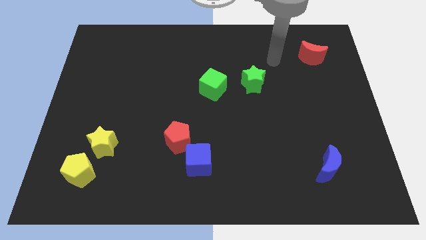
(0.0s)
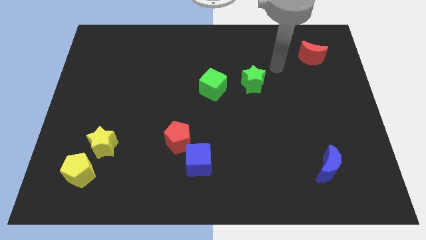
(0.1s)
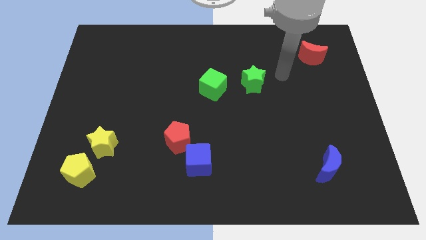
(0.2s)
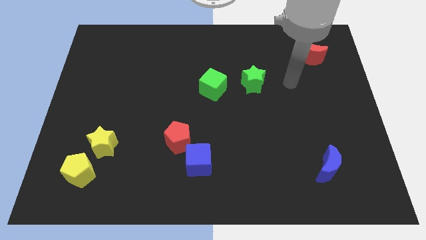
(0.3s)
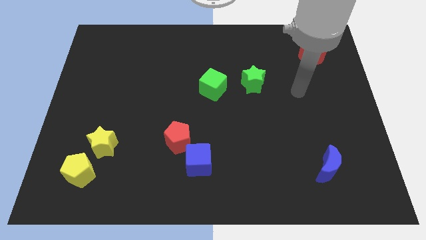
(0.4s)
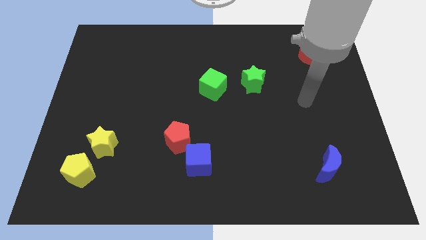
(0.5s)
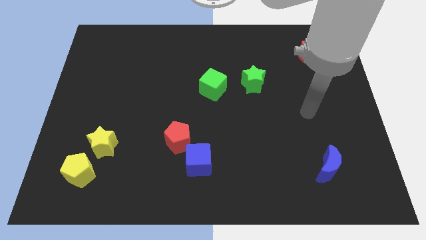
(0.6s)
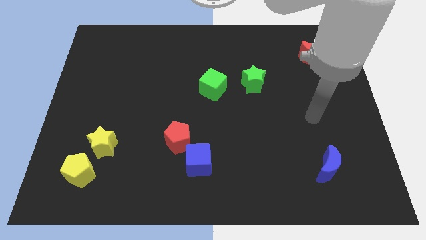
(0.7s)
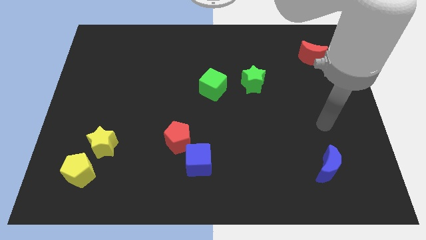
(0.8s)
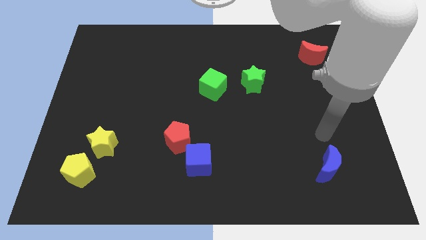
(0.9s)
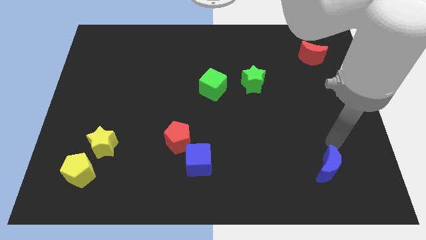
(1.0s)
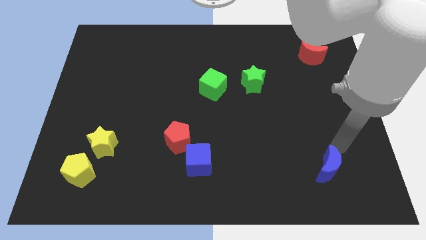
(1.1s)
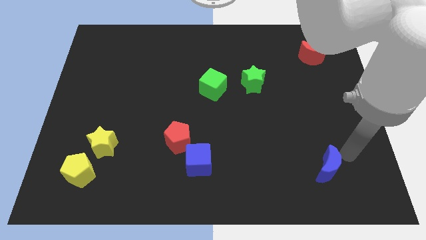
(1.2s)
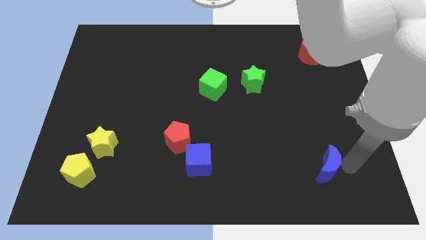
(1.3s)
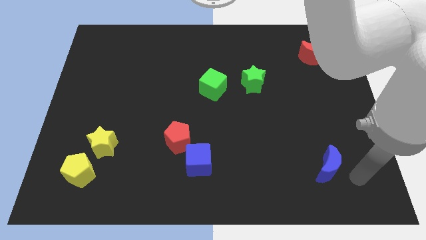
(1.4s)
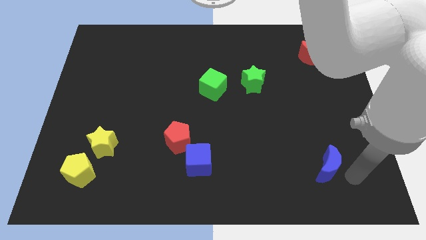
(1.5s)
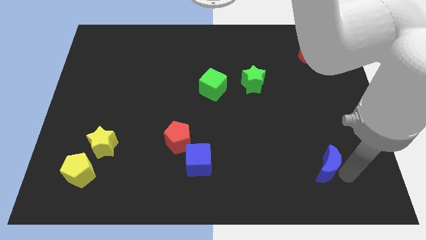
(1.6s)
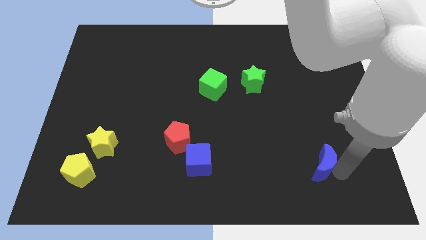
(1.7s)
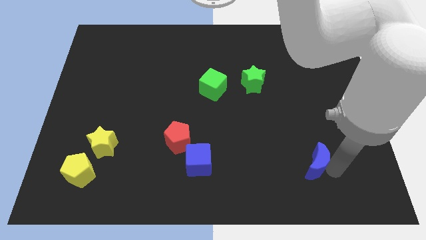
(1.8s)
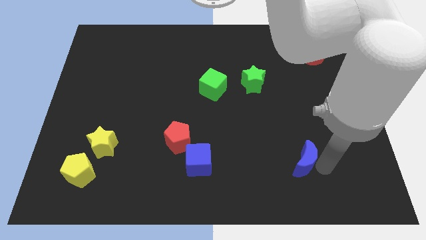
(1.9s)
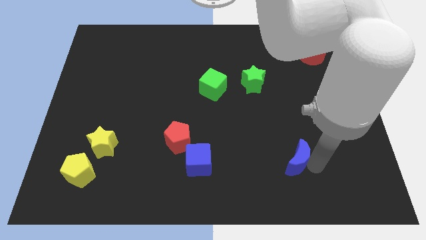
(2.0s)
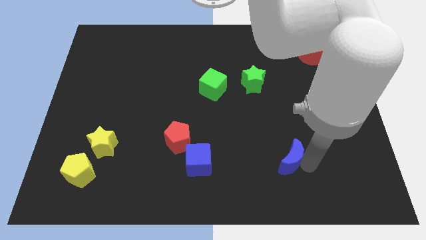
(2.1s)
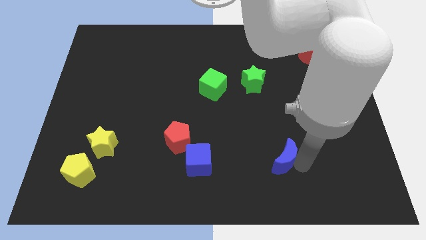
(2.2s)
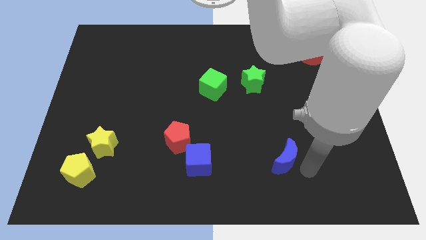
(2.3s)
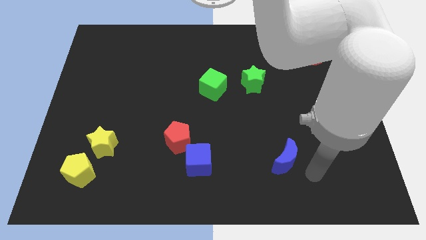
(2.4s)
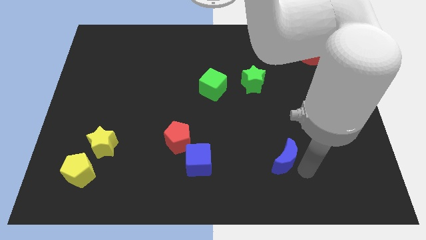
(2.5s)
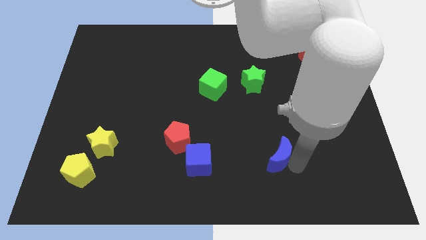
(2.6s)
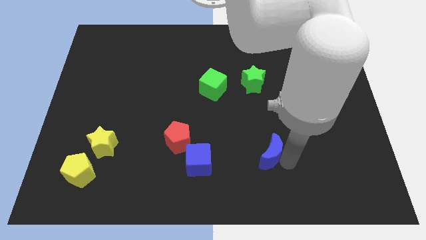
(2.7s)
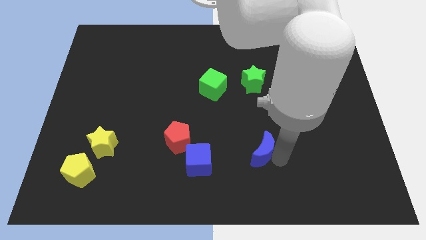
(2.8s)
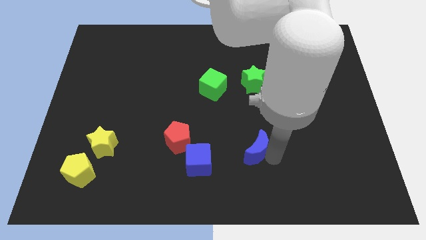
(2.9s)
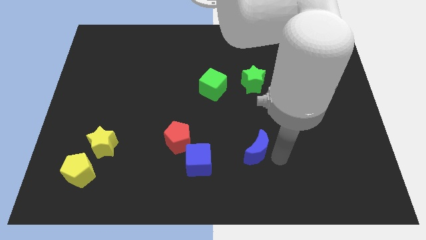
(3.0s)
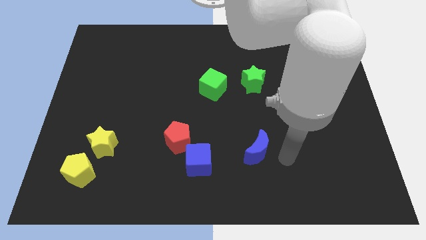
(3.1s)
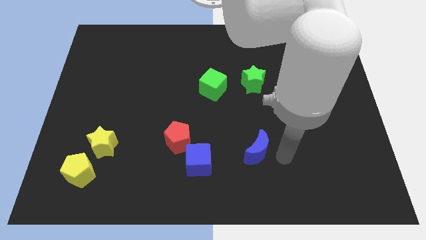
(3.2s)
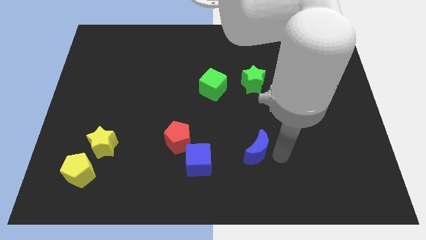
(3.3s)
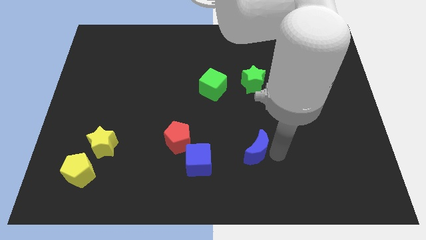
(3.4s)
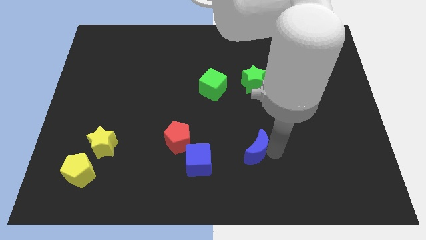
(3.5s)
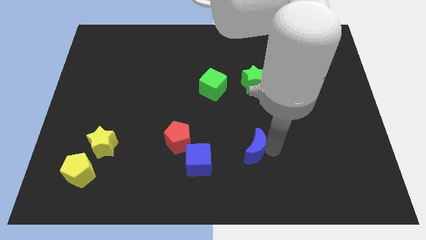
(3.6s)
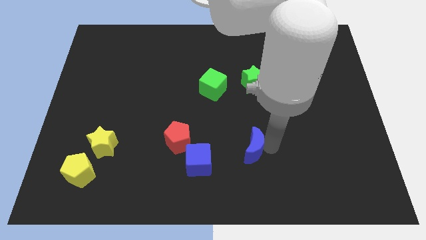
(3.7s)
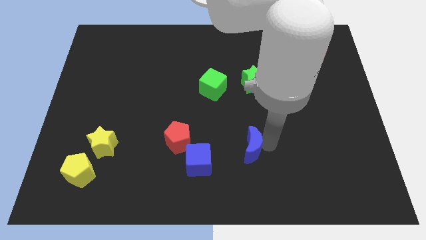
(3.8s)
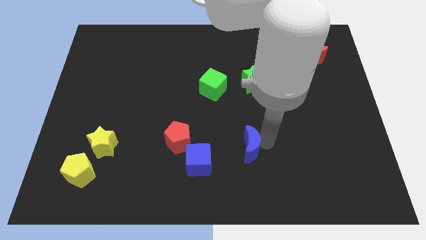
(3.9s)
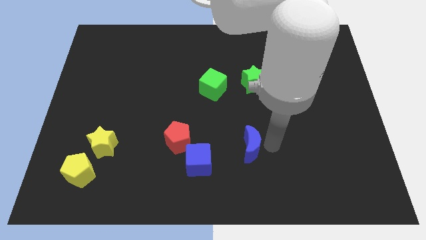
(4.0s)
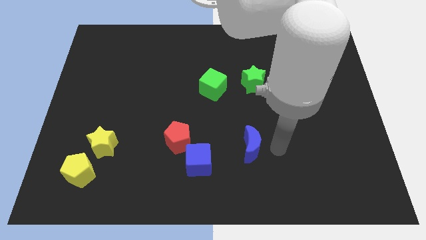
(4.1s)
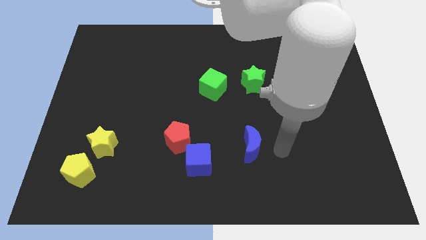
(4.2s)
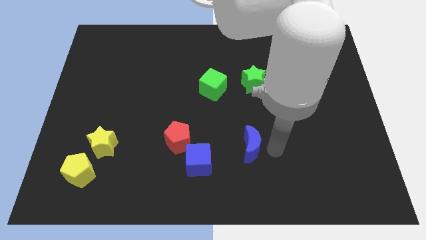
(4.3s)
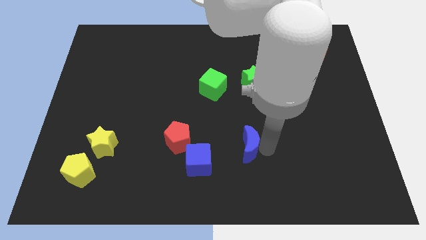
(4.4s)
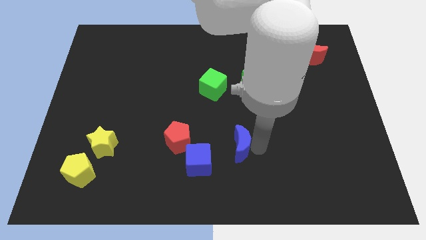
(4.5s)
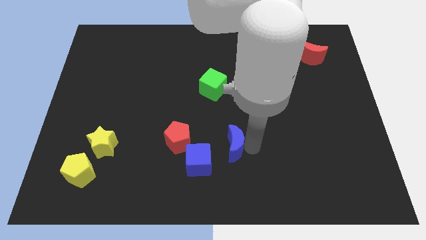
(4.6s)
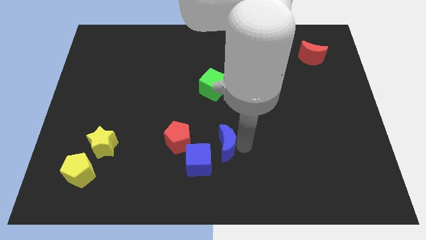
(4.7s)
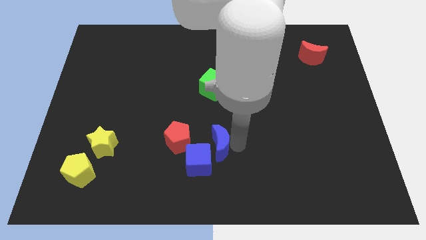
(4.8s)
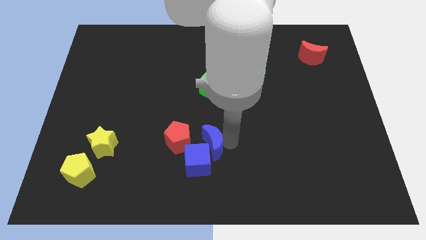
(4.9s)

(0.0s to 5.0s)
put the blue moon to the bottom right of the red pentagon

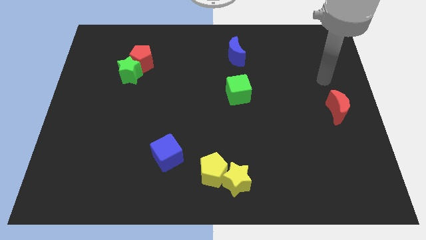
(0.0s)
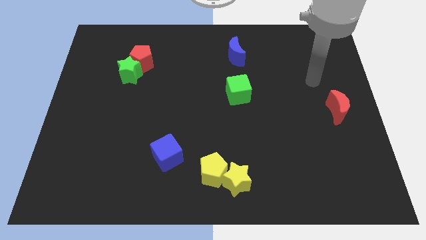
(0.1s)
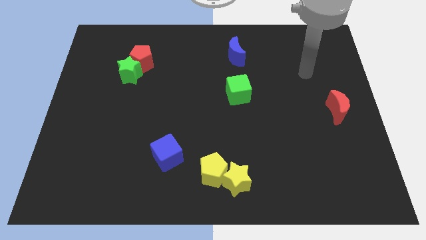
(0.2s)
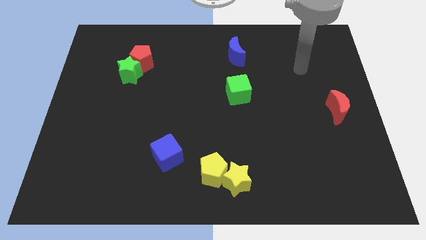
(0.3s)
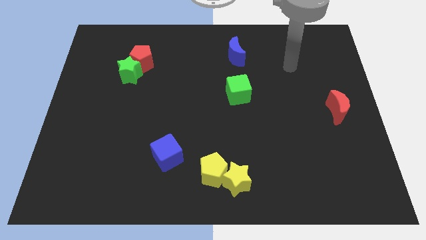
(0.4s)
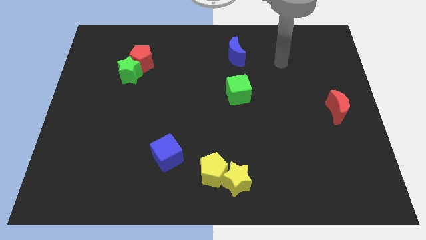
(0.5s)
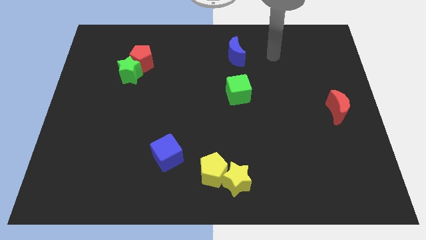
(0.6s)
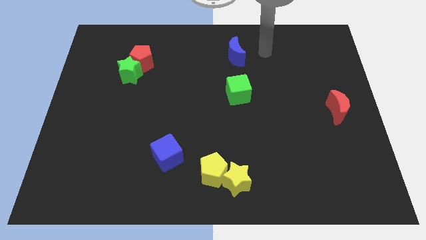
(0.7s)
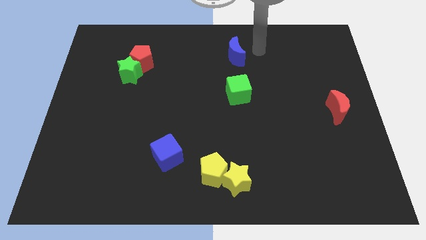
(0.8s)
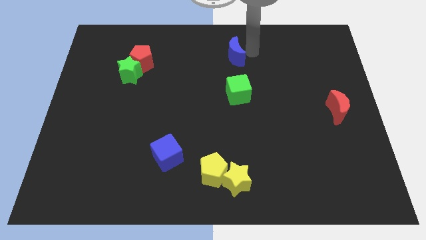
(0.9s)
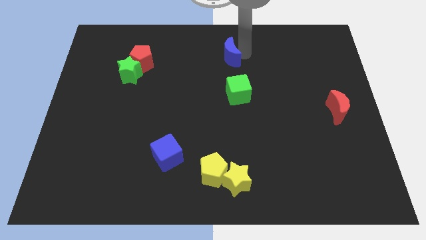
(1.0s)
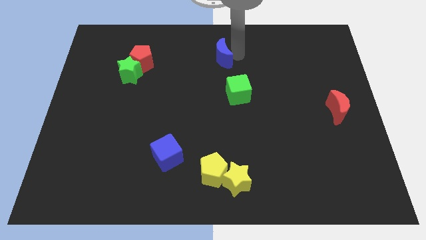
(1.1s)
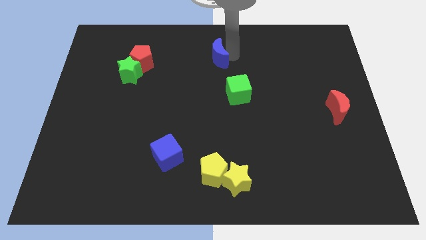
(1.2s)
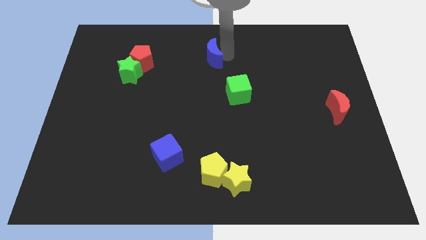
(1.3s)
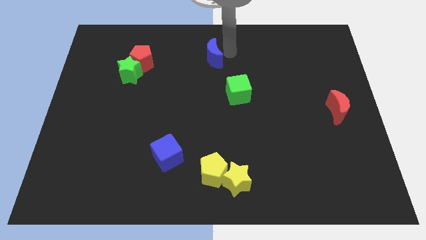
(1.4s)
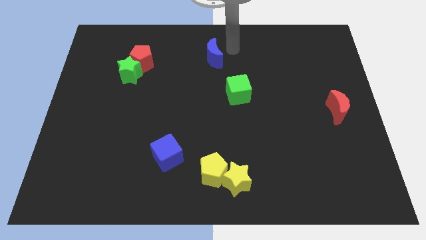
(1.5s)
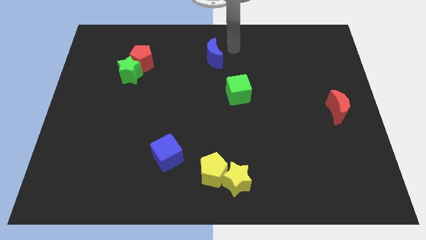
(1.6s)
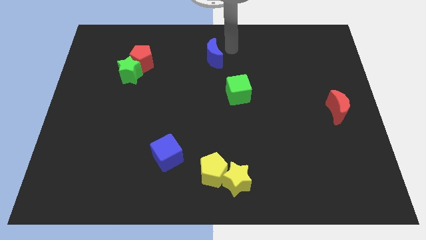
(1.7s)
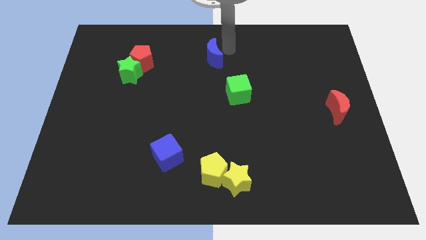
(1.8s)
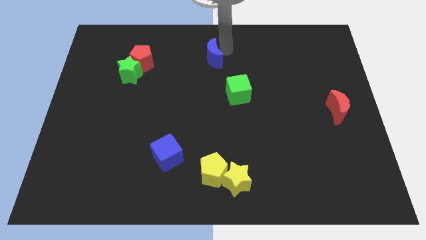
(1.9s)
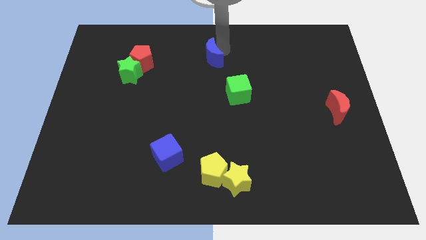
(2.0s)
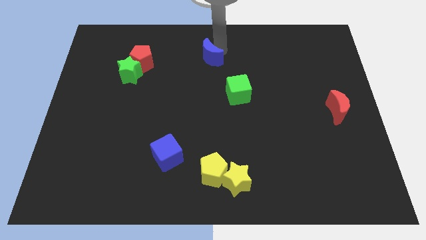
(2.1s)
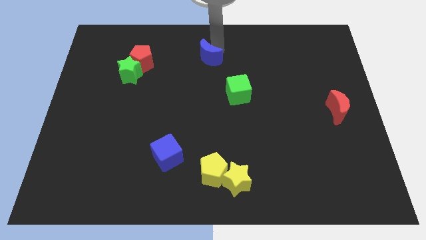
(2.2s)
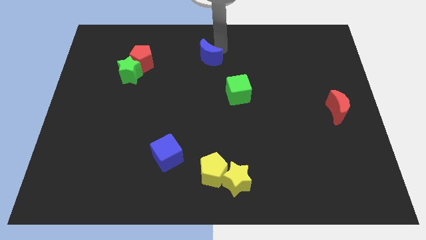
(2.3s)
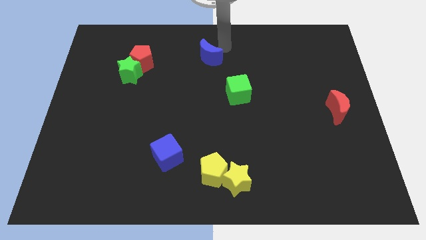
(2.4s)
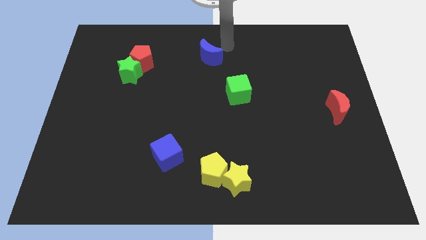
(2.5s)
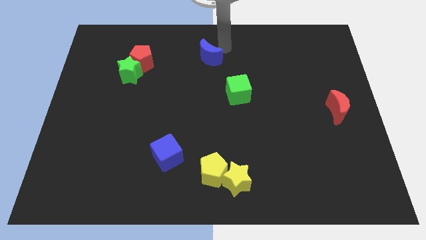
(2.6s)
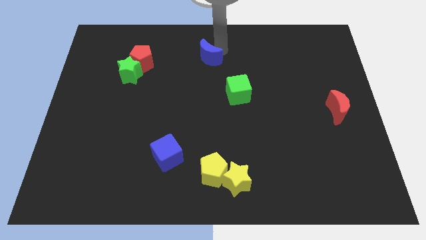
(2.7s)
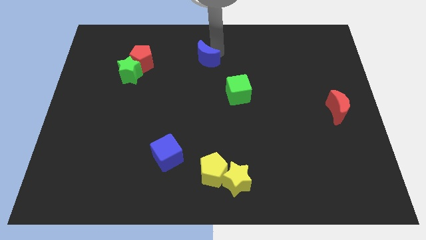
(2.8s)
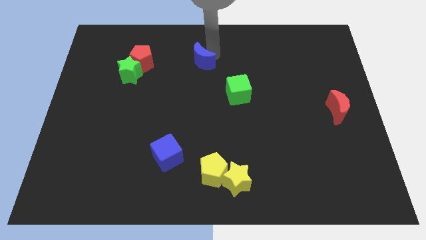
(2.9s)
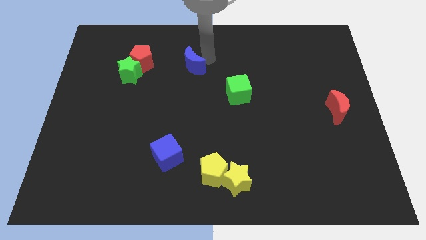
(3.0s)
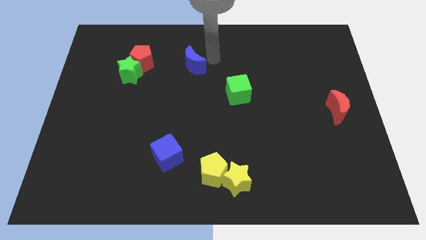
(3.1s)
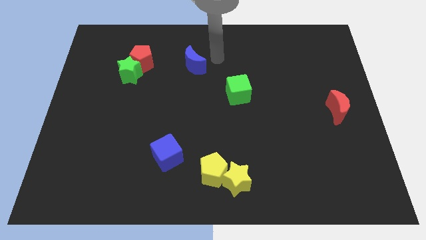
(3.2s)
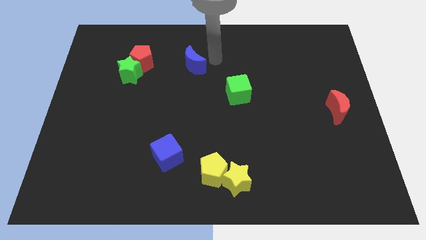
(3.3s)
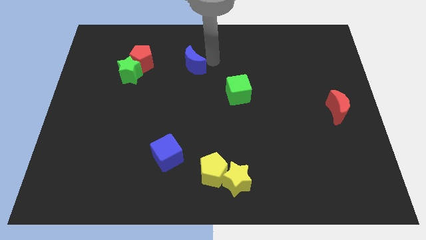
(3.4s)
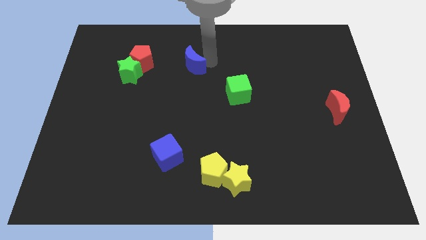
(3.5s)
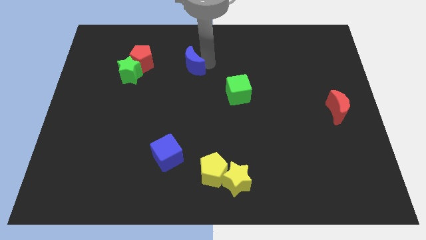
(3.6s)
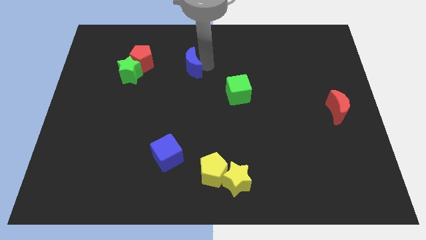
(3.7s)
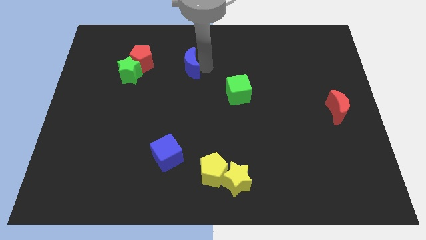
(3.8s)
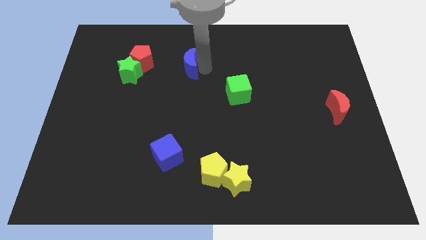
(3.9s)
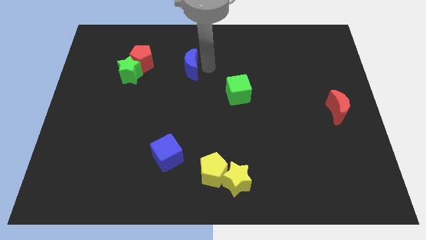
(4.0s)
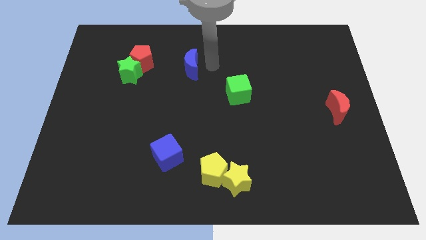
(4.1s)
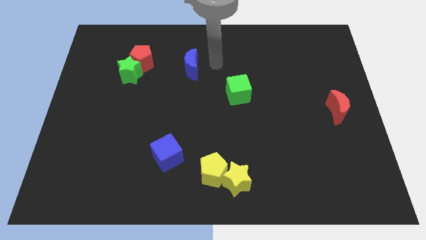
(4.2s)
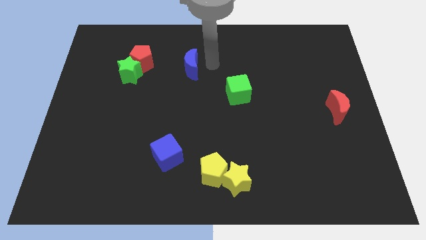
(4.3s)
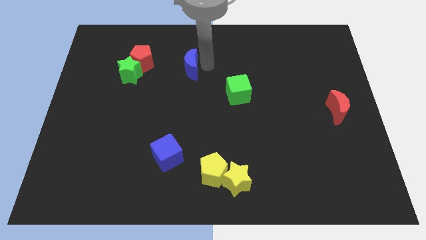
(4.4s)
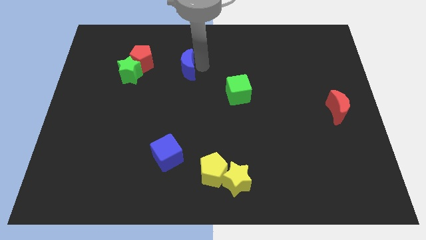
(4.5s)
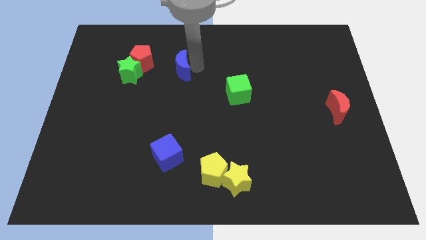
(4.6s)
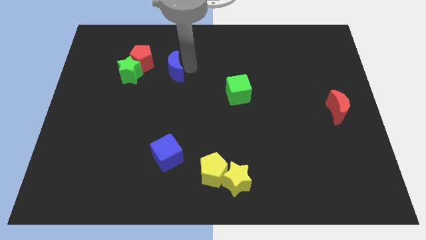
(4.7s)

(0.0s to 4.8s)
move the blue moon to the bottom right of the red pentagon
